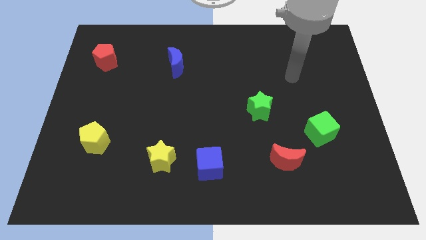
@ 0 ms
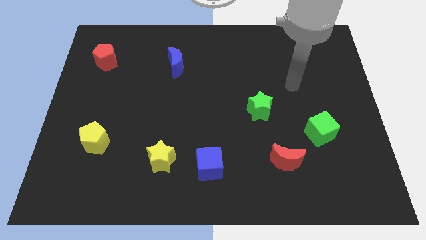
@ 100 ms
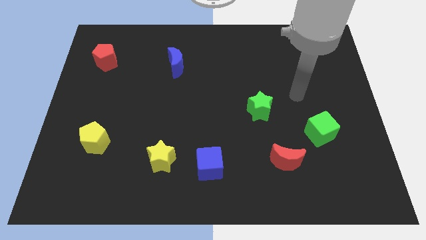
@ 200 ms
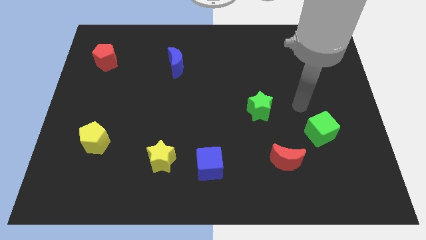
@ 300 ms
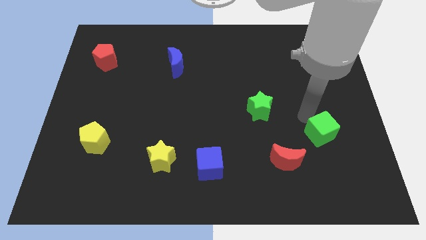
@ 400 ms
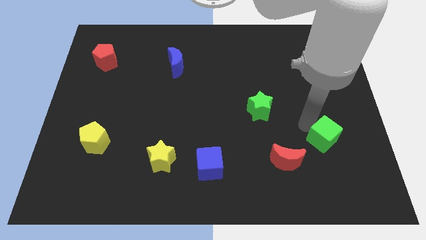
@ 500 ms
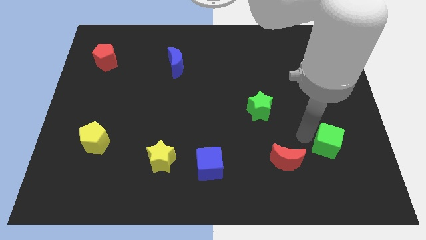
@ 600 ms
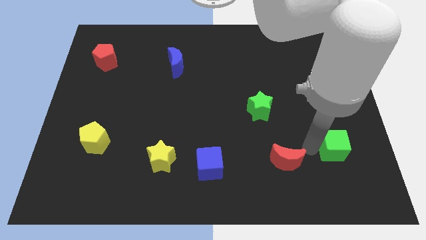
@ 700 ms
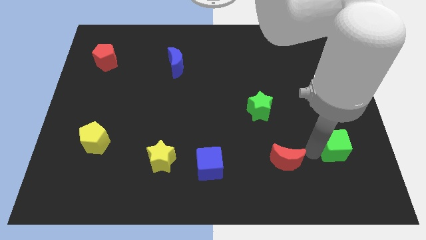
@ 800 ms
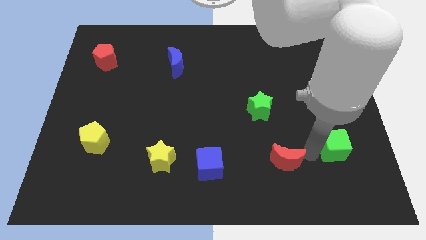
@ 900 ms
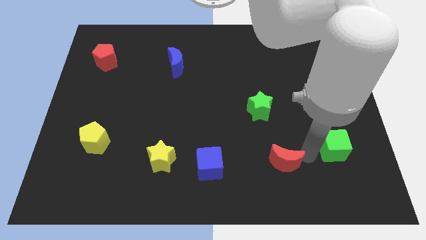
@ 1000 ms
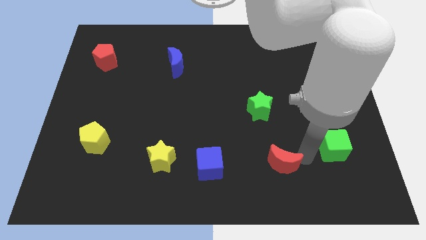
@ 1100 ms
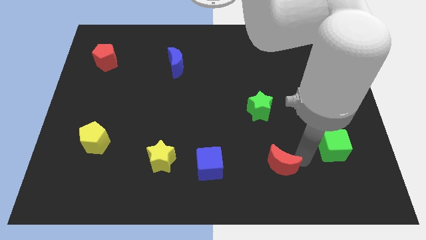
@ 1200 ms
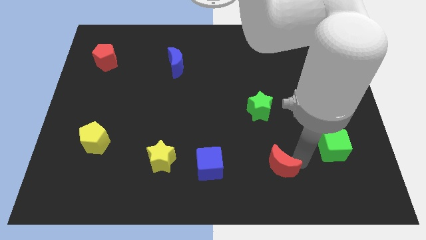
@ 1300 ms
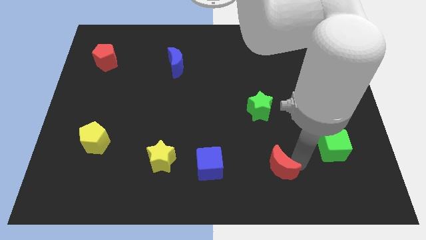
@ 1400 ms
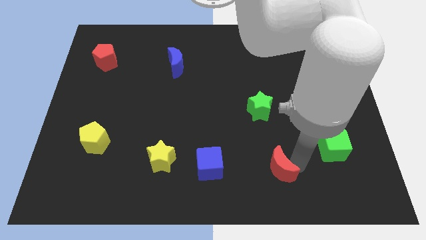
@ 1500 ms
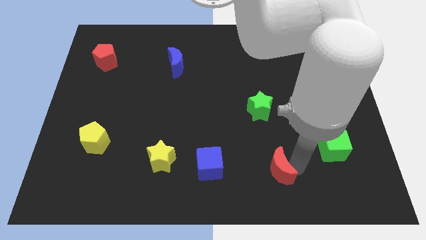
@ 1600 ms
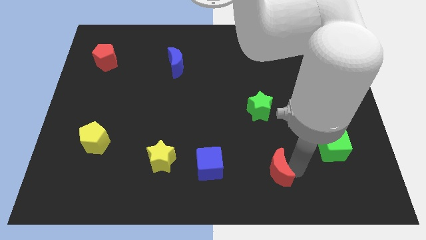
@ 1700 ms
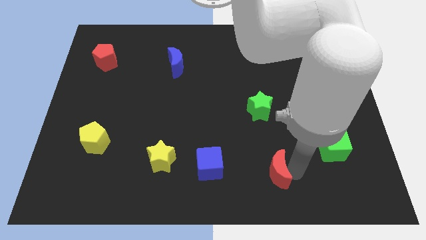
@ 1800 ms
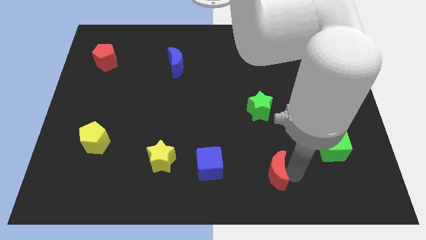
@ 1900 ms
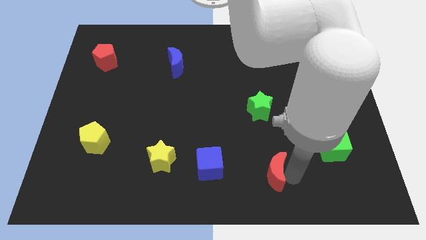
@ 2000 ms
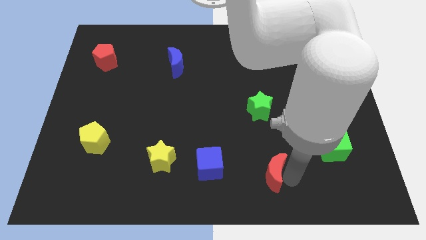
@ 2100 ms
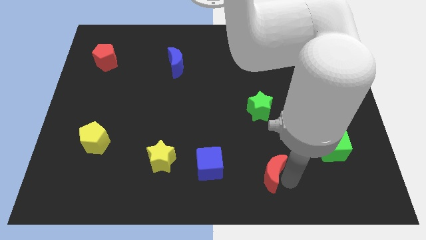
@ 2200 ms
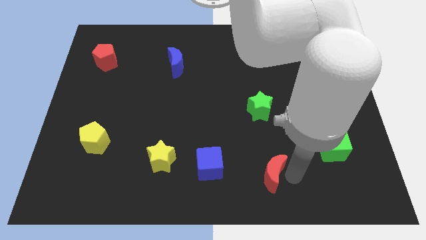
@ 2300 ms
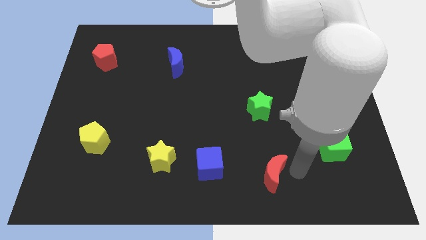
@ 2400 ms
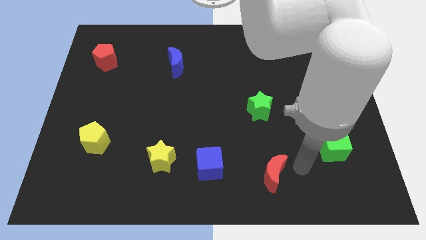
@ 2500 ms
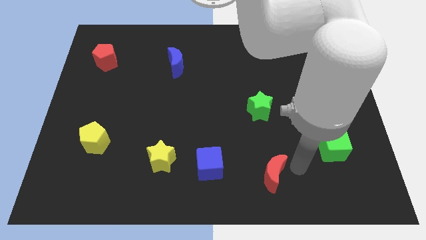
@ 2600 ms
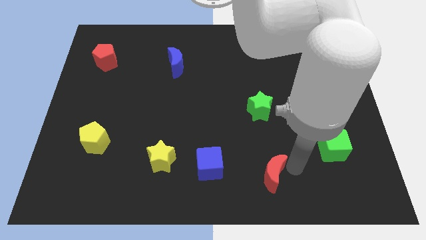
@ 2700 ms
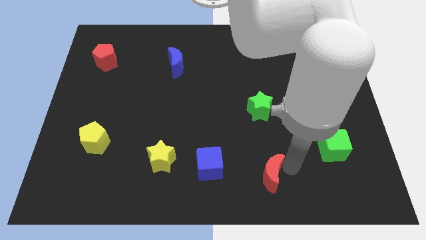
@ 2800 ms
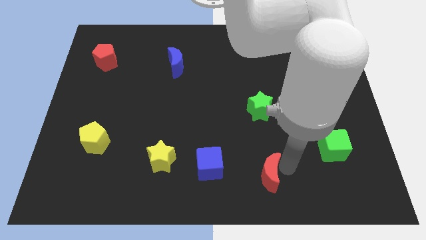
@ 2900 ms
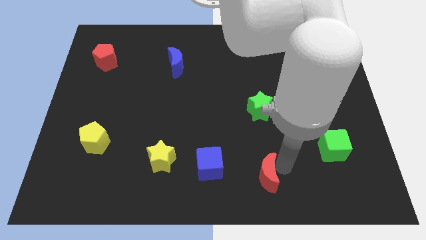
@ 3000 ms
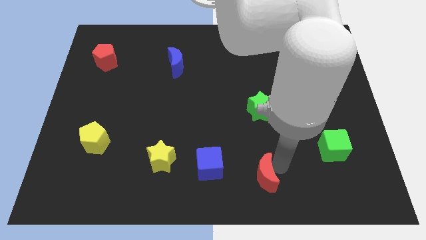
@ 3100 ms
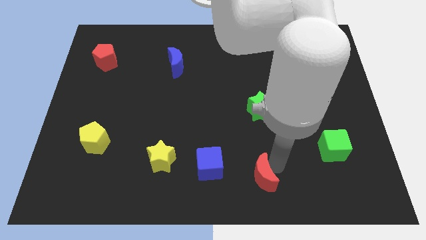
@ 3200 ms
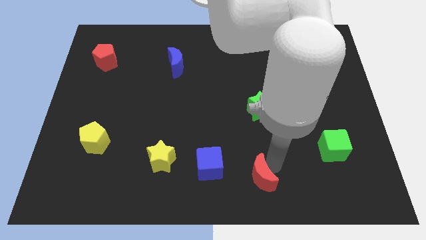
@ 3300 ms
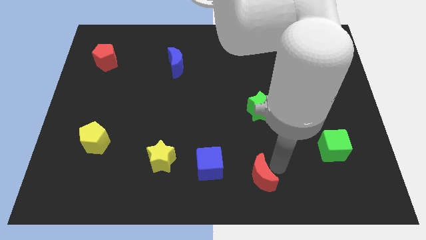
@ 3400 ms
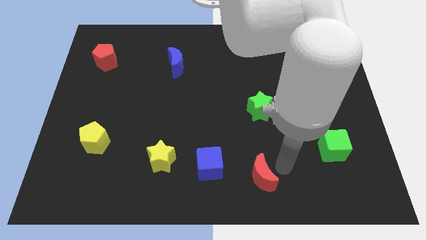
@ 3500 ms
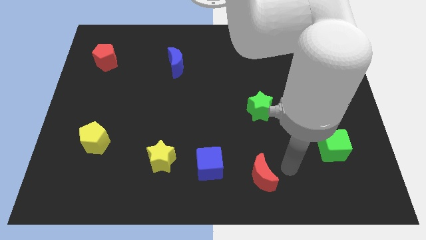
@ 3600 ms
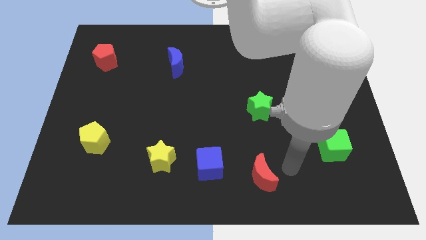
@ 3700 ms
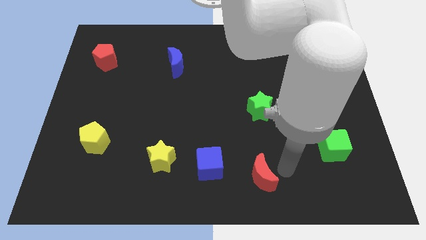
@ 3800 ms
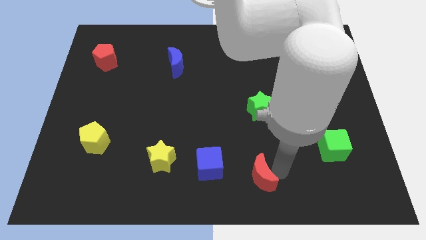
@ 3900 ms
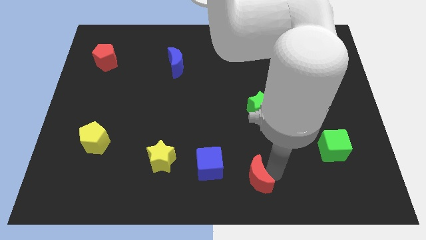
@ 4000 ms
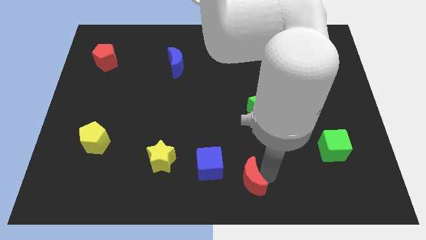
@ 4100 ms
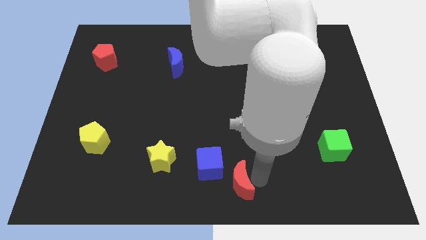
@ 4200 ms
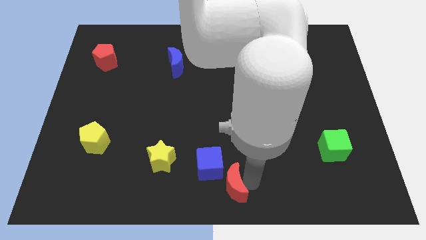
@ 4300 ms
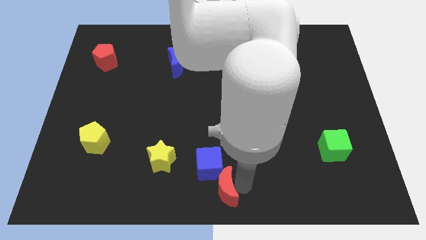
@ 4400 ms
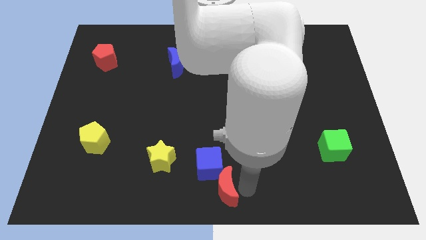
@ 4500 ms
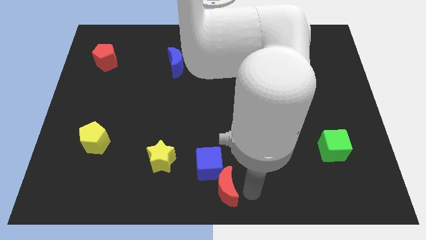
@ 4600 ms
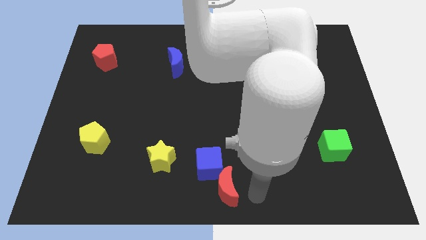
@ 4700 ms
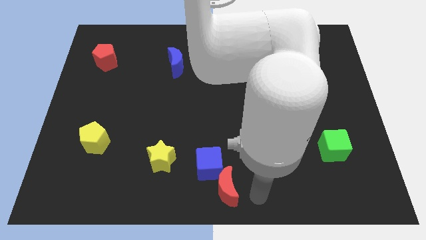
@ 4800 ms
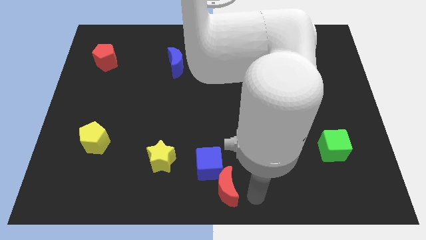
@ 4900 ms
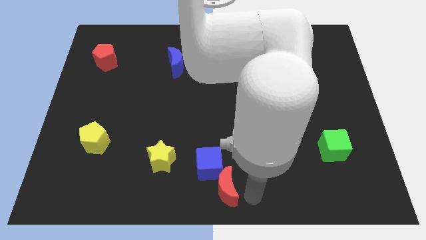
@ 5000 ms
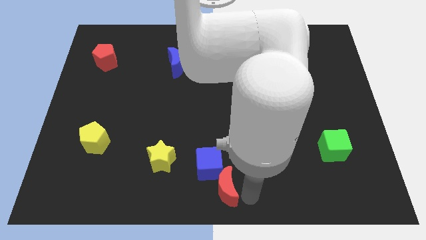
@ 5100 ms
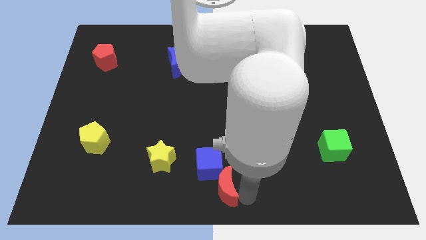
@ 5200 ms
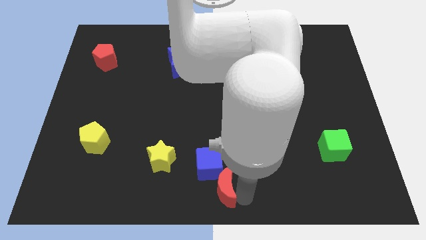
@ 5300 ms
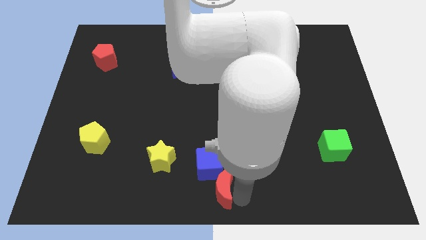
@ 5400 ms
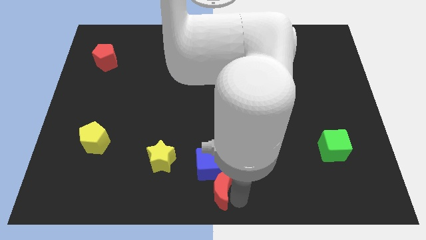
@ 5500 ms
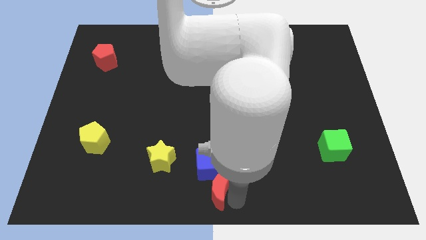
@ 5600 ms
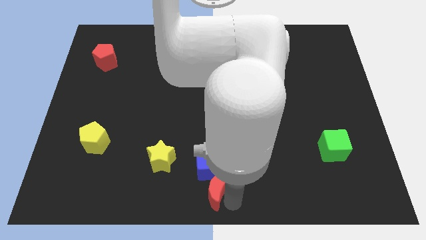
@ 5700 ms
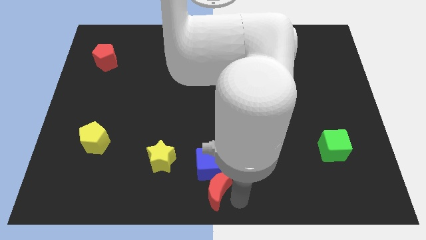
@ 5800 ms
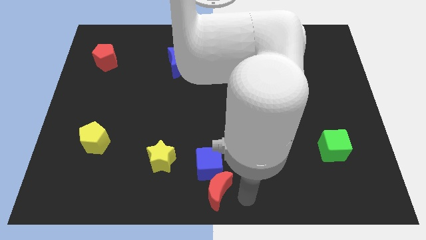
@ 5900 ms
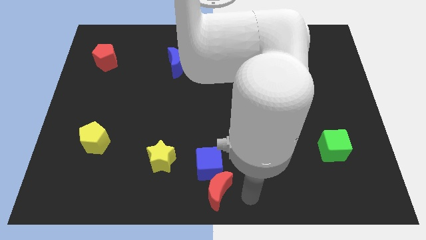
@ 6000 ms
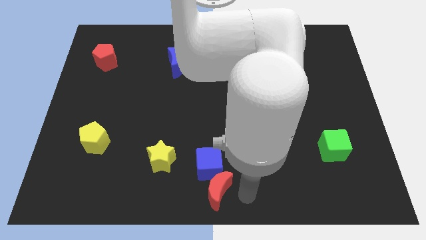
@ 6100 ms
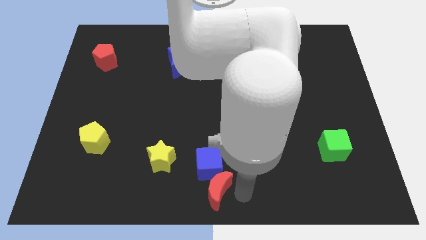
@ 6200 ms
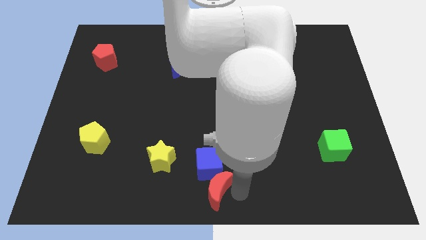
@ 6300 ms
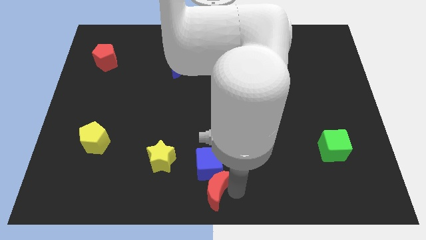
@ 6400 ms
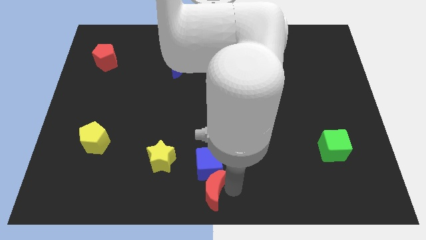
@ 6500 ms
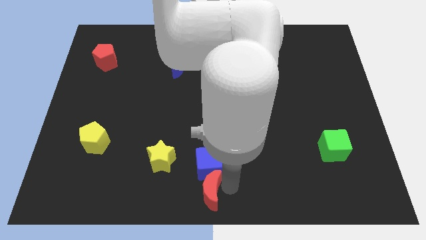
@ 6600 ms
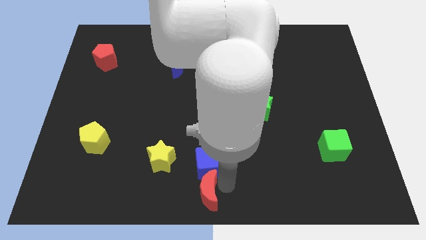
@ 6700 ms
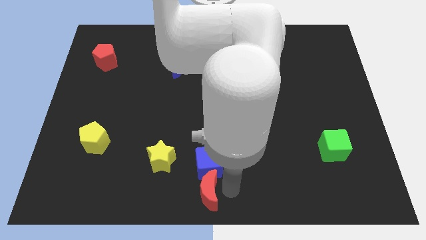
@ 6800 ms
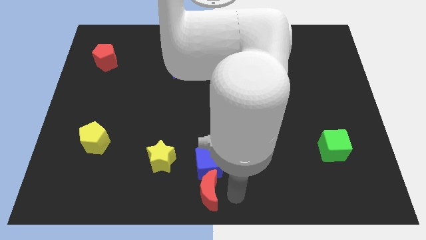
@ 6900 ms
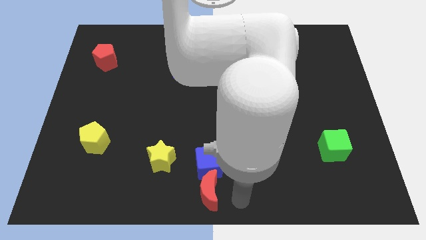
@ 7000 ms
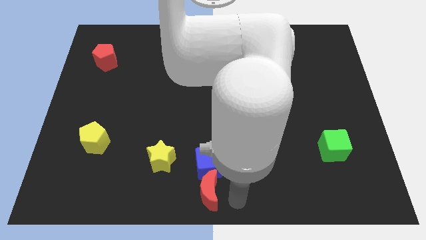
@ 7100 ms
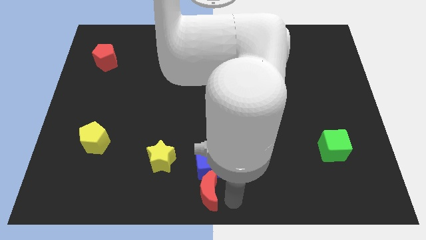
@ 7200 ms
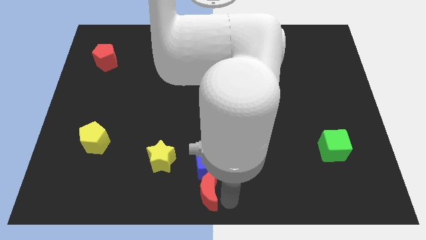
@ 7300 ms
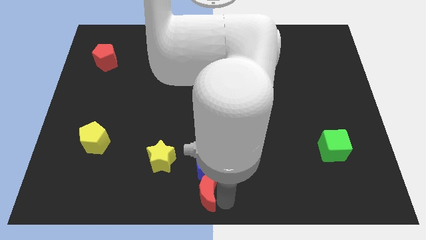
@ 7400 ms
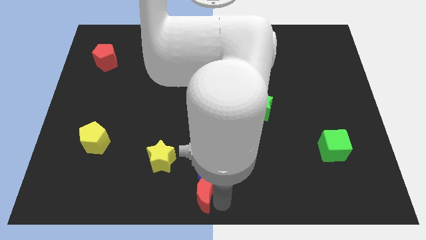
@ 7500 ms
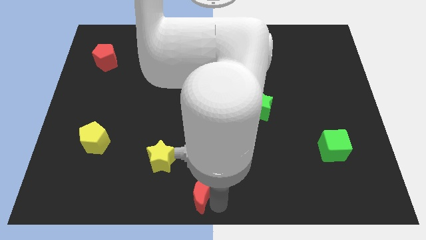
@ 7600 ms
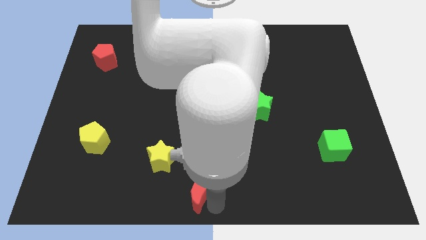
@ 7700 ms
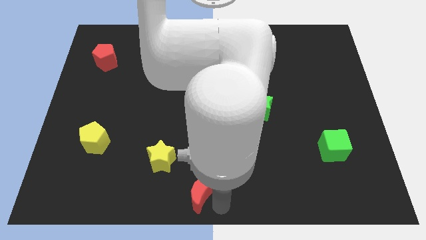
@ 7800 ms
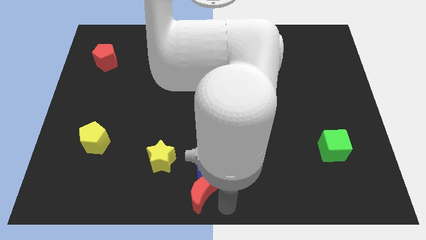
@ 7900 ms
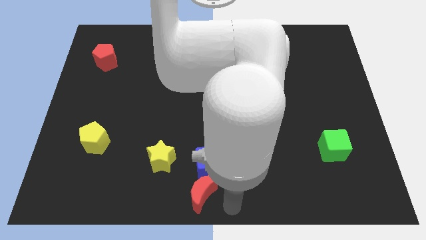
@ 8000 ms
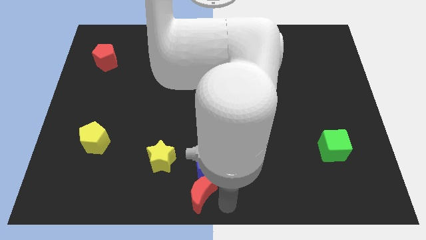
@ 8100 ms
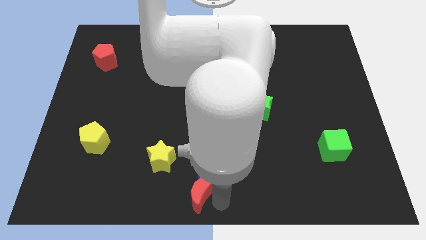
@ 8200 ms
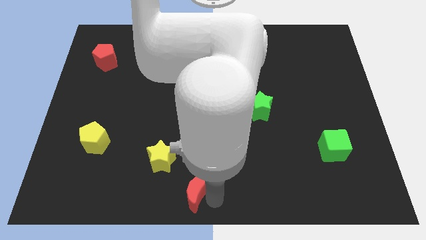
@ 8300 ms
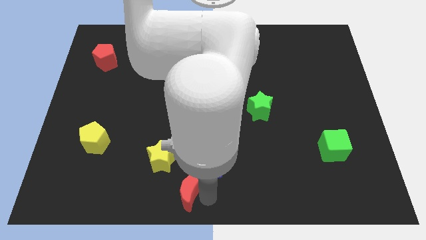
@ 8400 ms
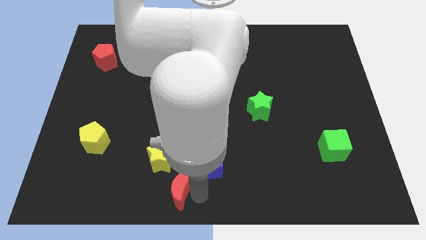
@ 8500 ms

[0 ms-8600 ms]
push the red moon to the left
